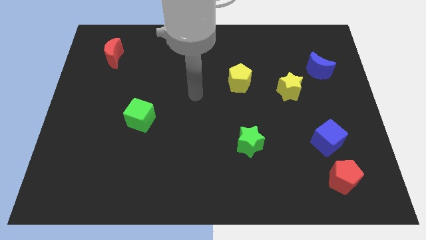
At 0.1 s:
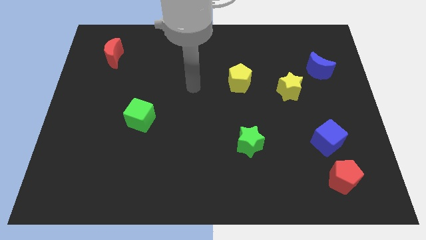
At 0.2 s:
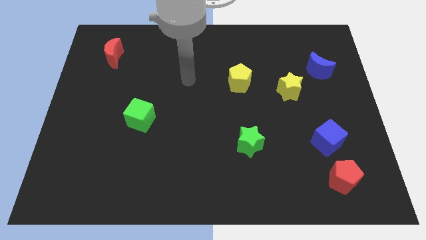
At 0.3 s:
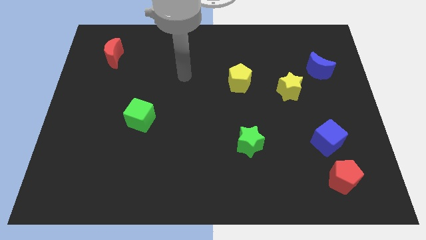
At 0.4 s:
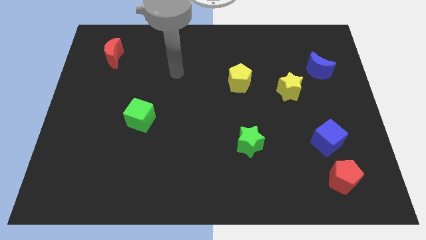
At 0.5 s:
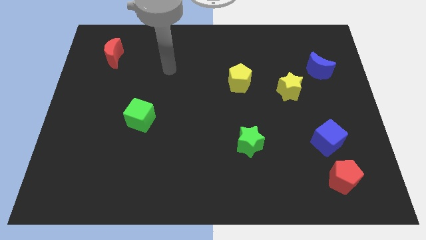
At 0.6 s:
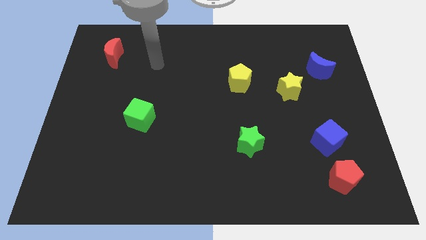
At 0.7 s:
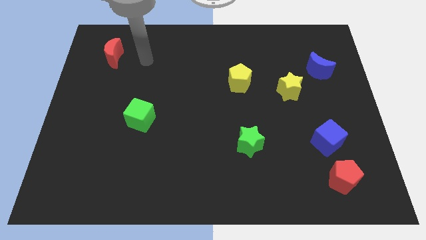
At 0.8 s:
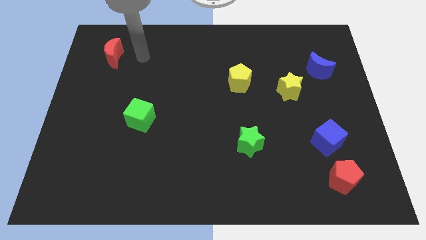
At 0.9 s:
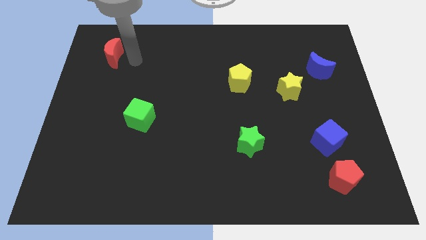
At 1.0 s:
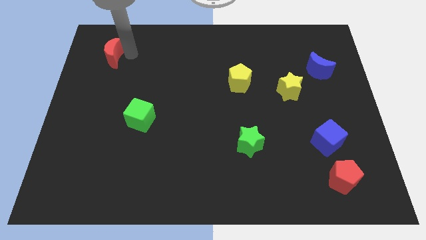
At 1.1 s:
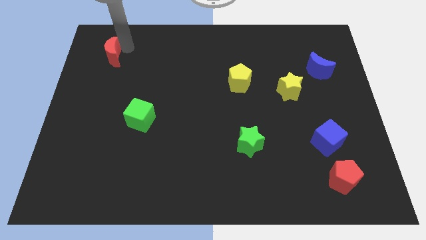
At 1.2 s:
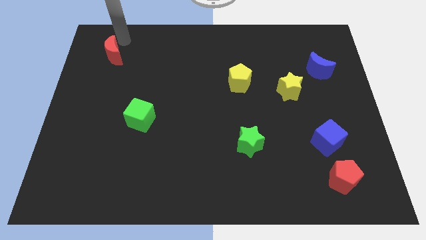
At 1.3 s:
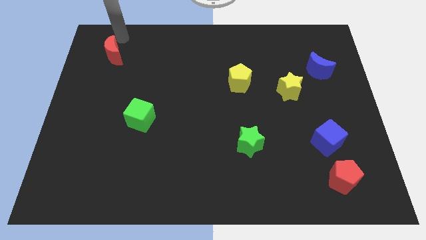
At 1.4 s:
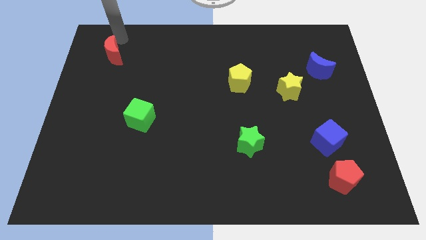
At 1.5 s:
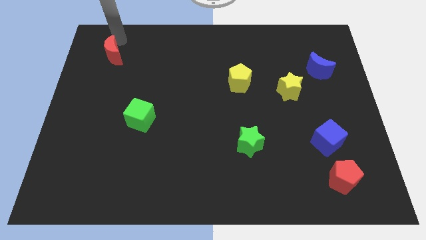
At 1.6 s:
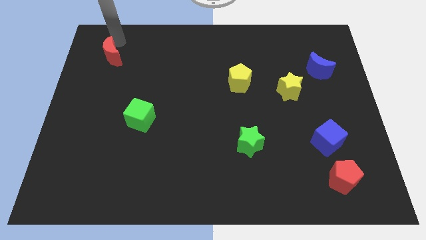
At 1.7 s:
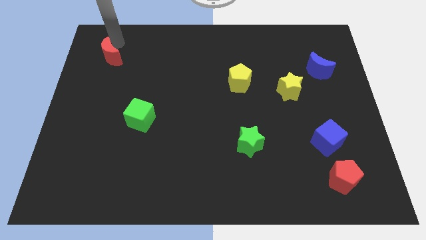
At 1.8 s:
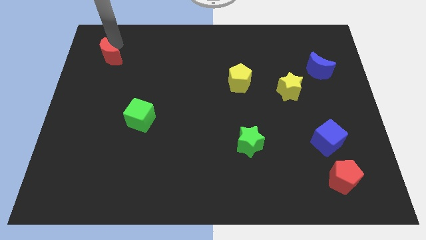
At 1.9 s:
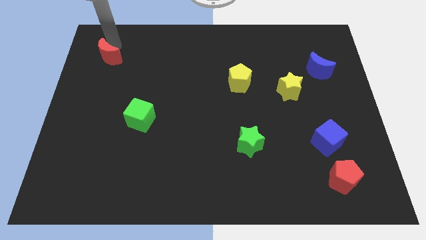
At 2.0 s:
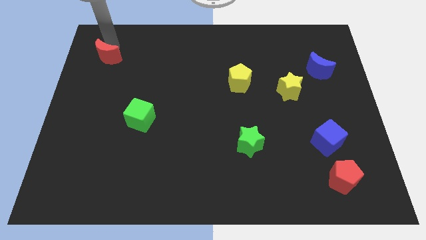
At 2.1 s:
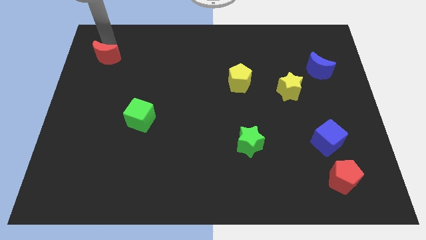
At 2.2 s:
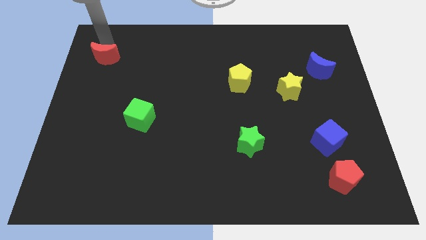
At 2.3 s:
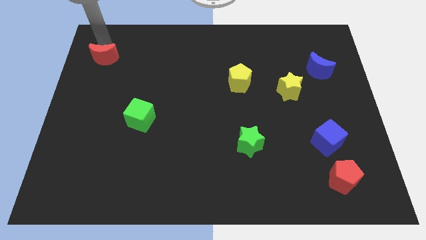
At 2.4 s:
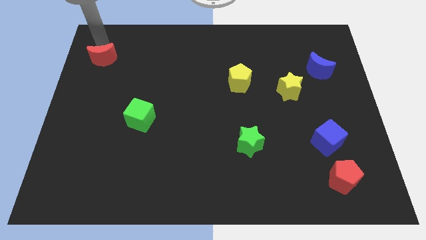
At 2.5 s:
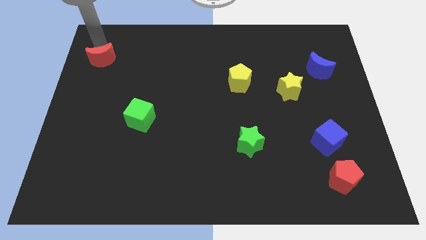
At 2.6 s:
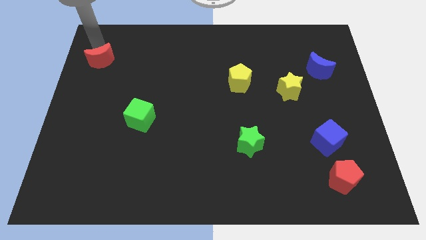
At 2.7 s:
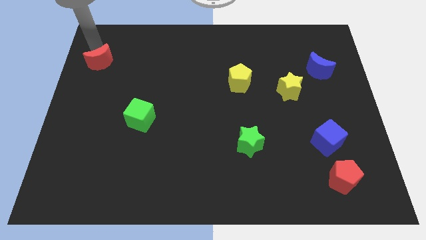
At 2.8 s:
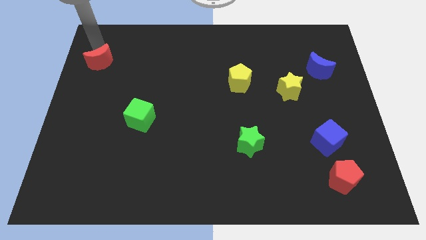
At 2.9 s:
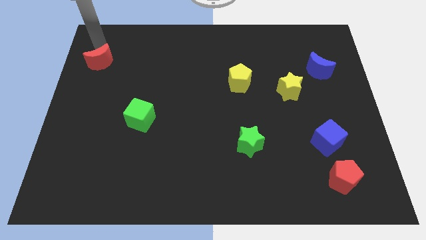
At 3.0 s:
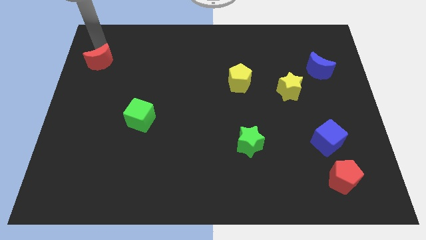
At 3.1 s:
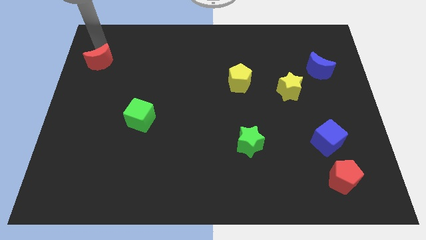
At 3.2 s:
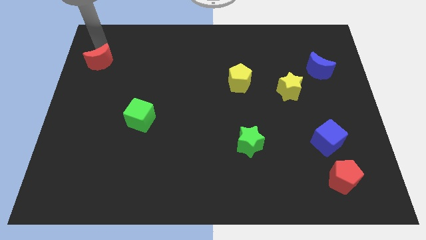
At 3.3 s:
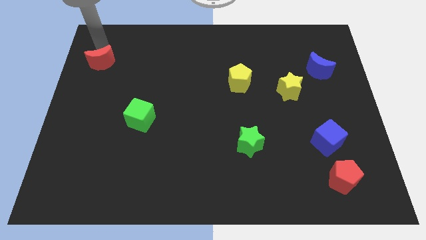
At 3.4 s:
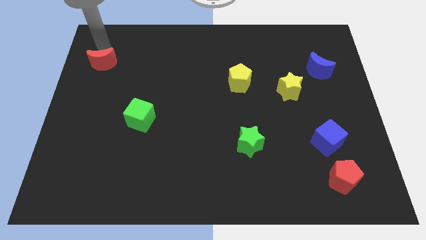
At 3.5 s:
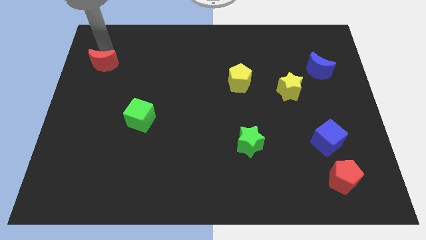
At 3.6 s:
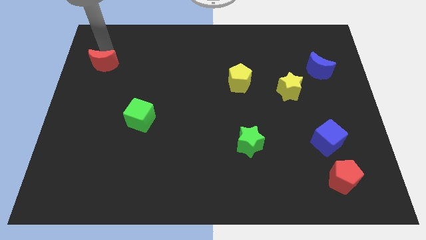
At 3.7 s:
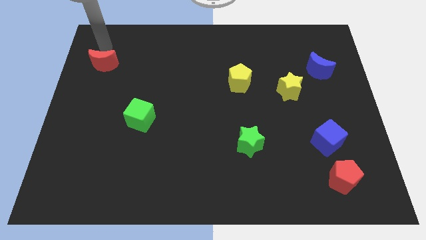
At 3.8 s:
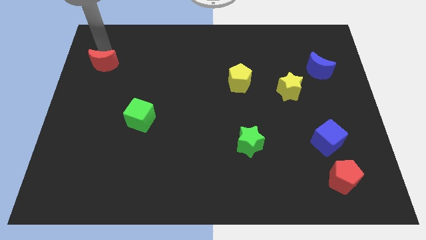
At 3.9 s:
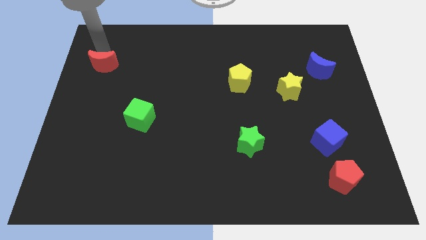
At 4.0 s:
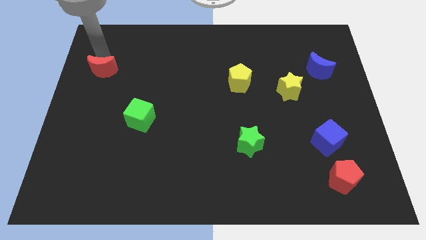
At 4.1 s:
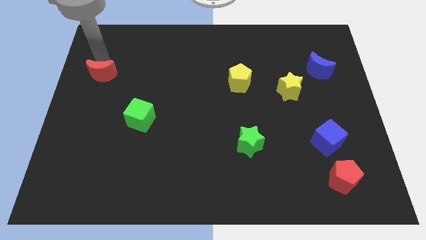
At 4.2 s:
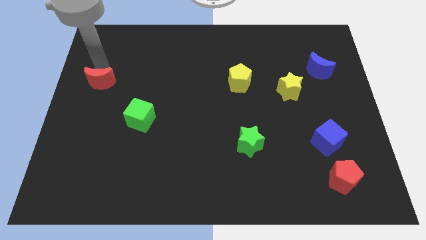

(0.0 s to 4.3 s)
push the red moon downwards slightly

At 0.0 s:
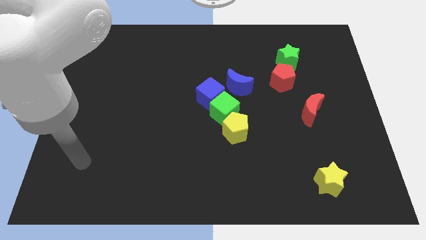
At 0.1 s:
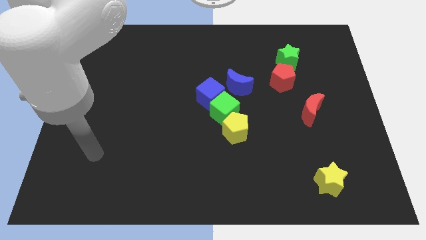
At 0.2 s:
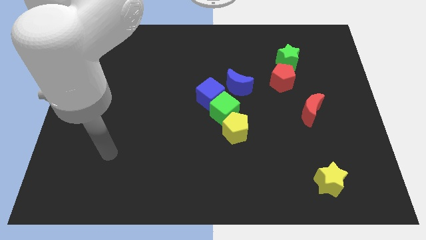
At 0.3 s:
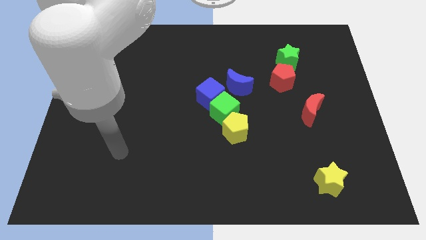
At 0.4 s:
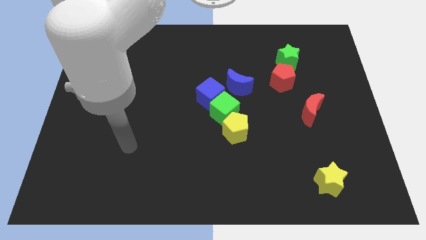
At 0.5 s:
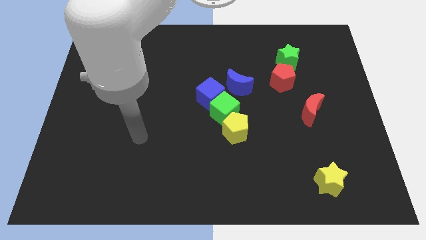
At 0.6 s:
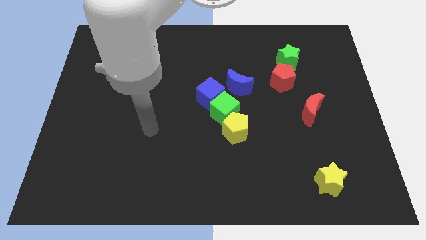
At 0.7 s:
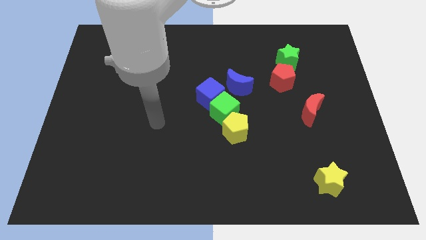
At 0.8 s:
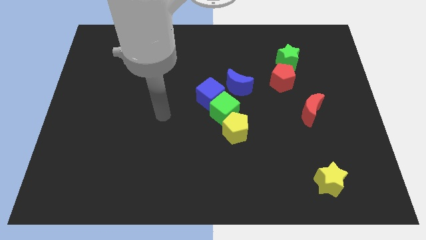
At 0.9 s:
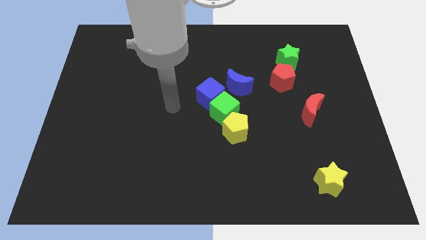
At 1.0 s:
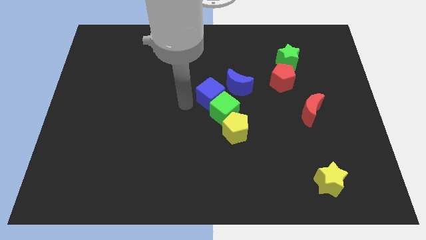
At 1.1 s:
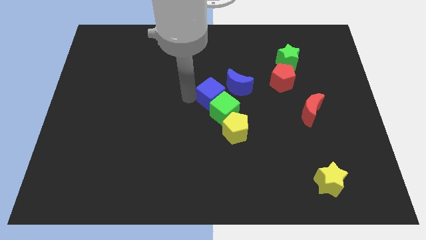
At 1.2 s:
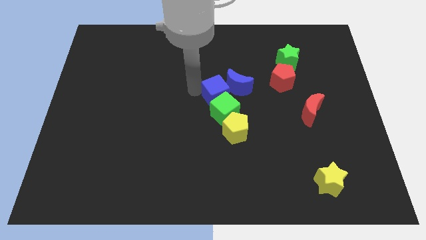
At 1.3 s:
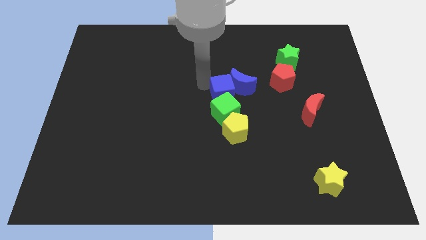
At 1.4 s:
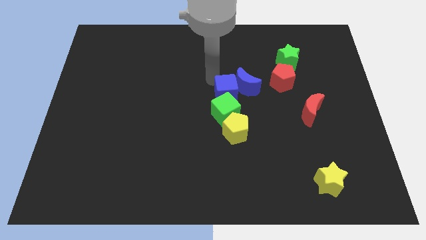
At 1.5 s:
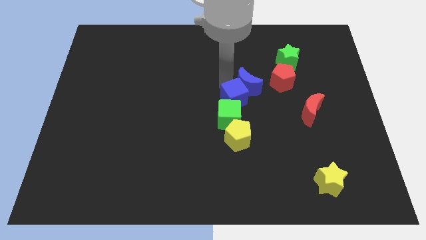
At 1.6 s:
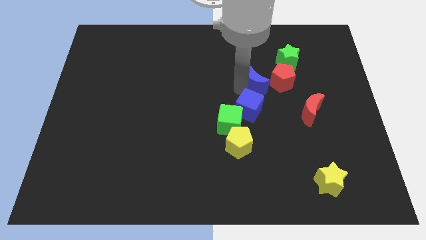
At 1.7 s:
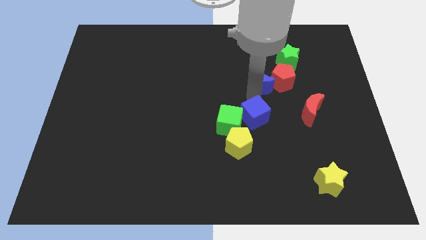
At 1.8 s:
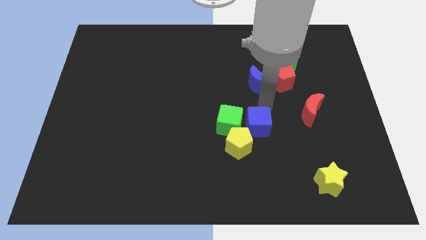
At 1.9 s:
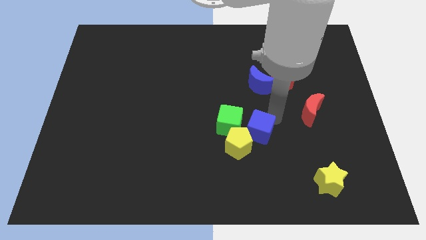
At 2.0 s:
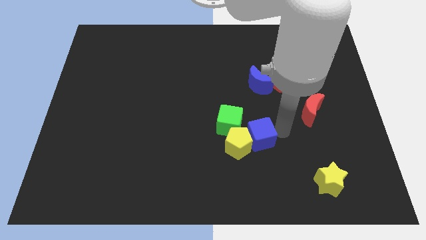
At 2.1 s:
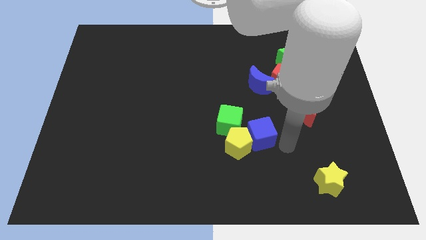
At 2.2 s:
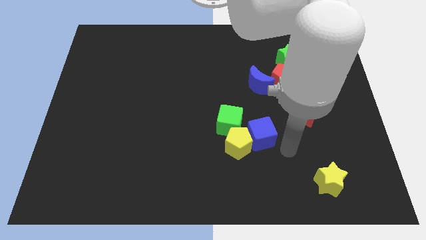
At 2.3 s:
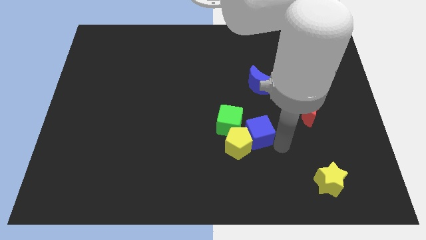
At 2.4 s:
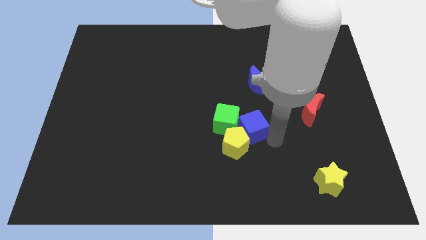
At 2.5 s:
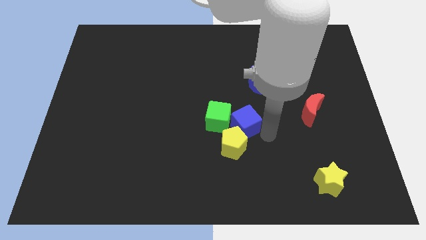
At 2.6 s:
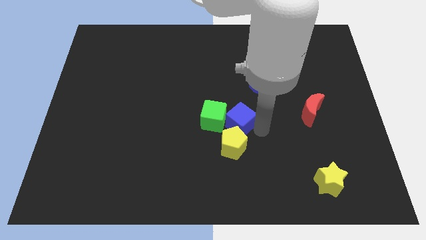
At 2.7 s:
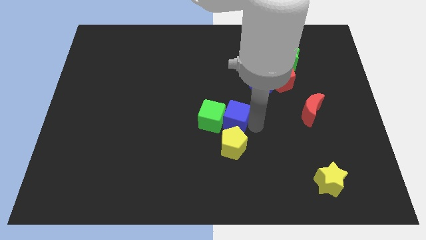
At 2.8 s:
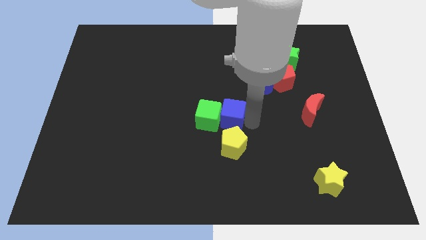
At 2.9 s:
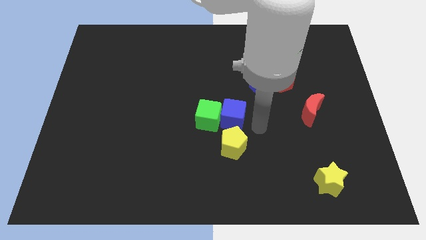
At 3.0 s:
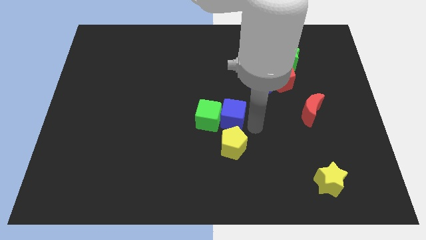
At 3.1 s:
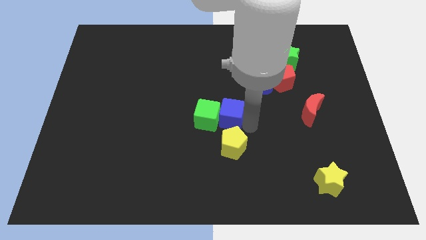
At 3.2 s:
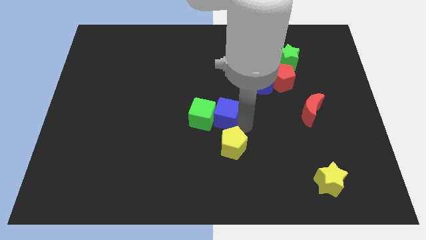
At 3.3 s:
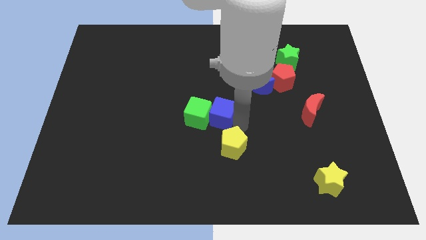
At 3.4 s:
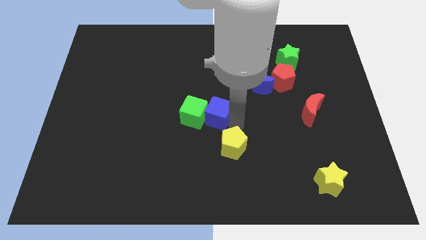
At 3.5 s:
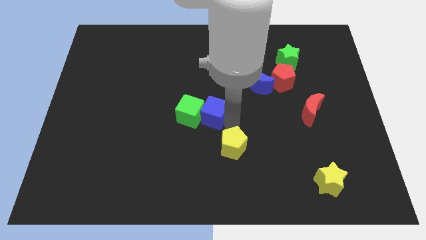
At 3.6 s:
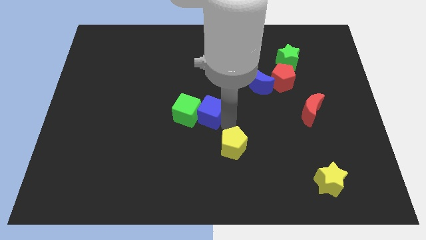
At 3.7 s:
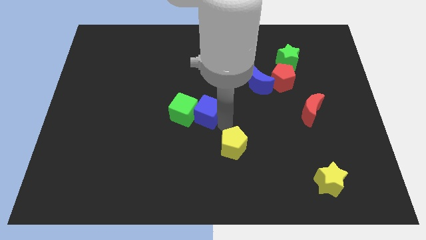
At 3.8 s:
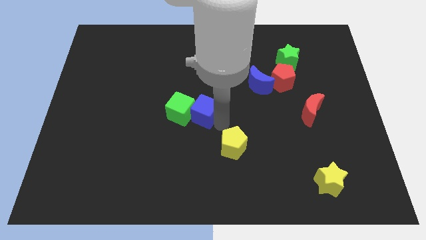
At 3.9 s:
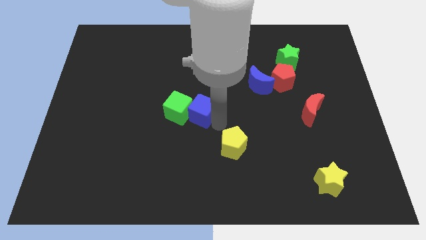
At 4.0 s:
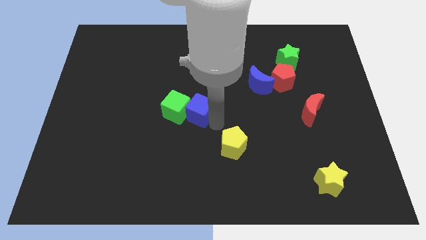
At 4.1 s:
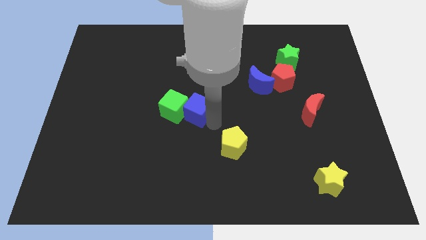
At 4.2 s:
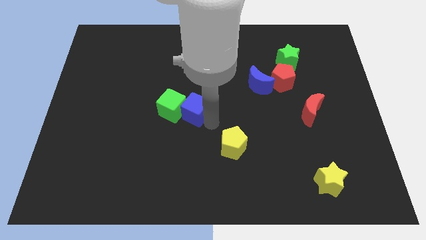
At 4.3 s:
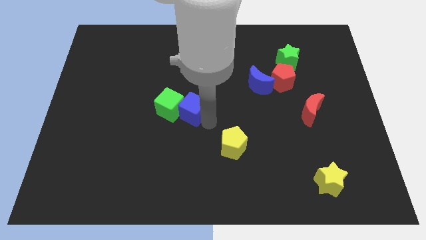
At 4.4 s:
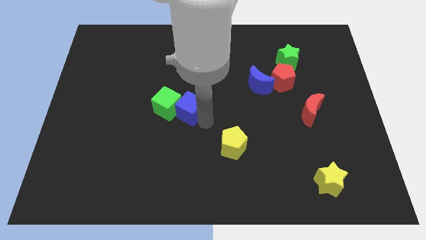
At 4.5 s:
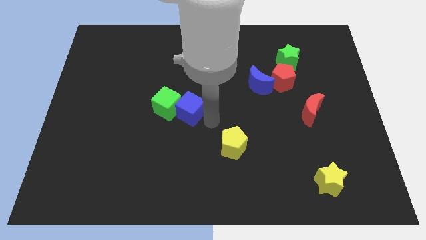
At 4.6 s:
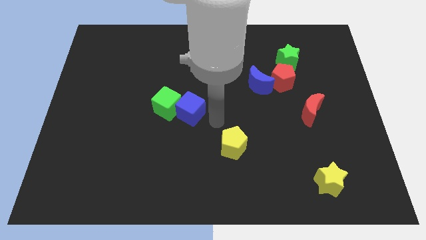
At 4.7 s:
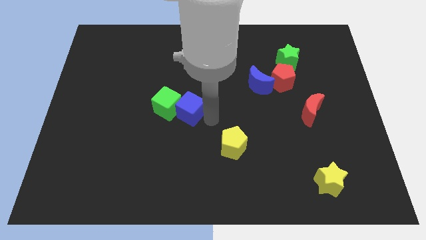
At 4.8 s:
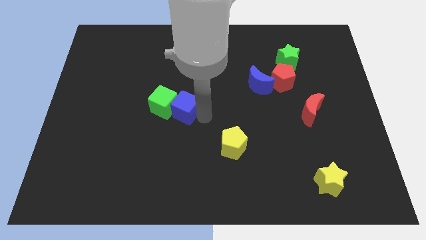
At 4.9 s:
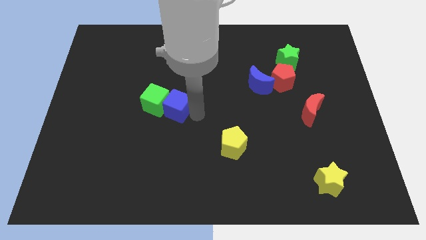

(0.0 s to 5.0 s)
move the blue cube to the left a little
